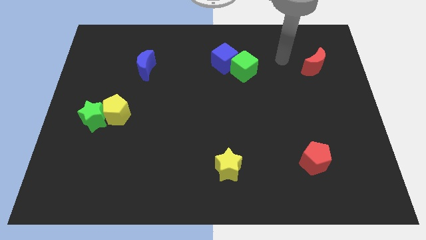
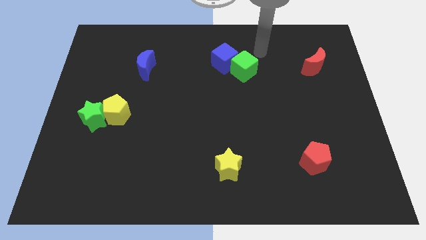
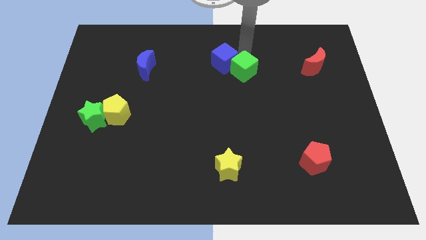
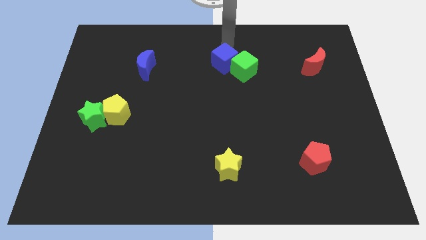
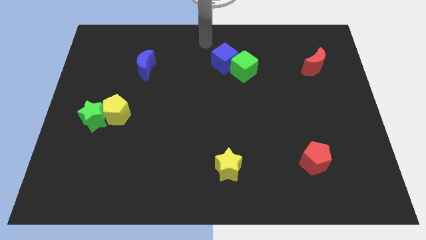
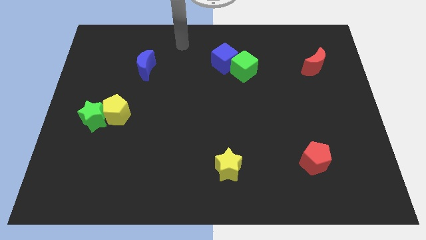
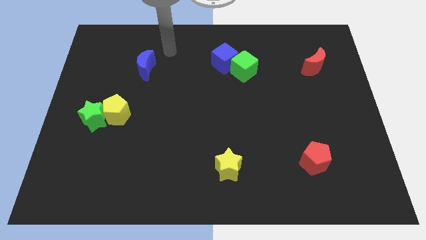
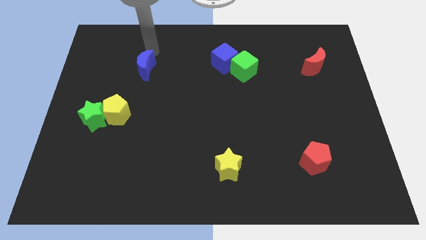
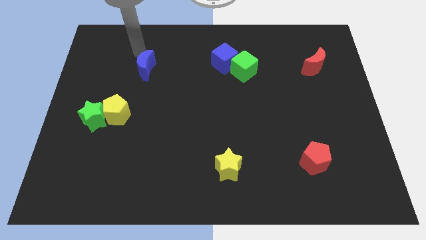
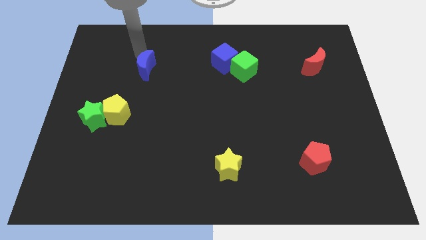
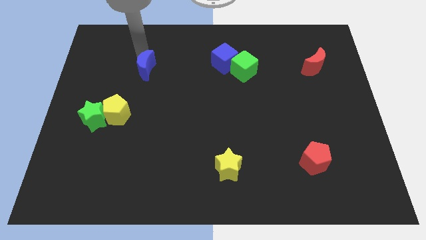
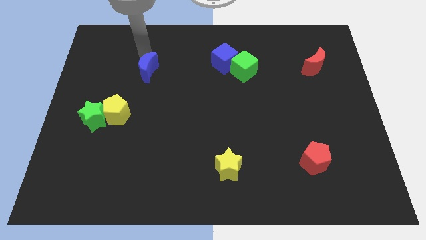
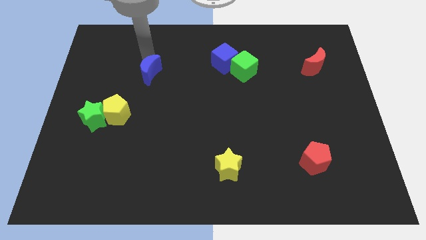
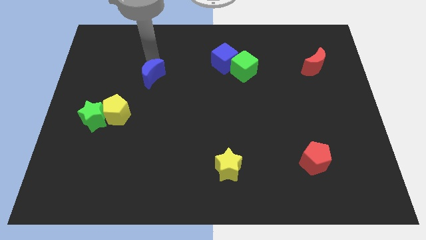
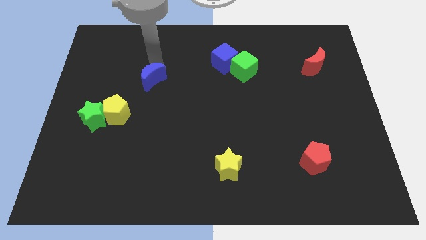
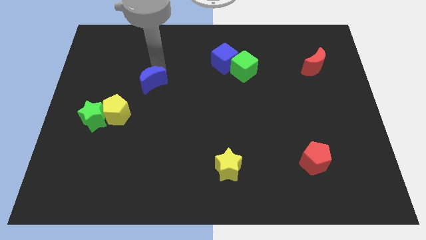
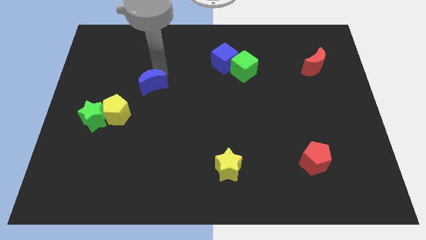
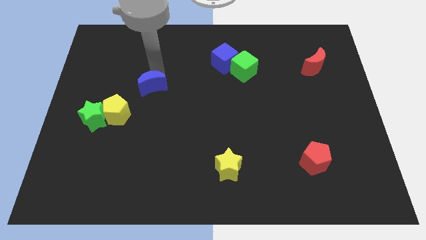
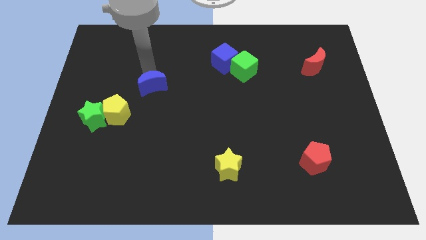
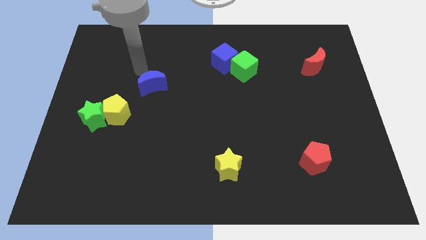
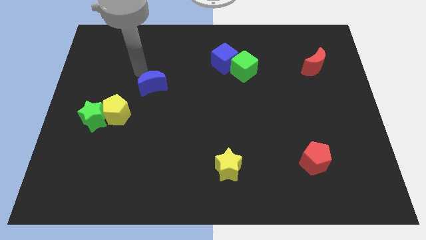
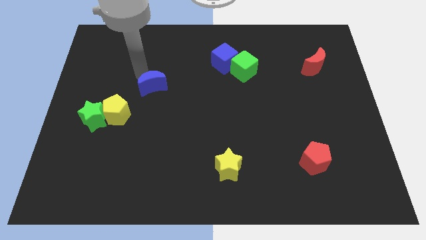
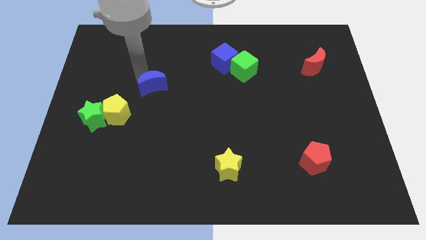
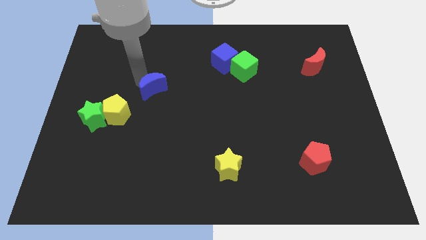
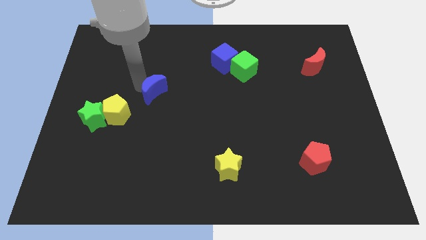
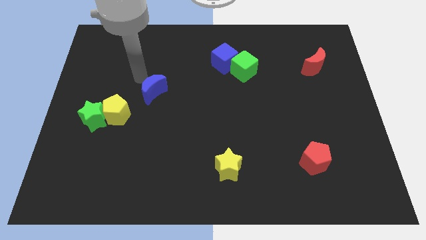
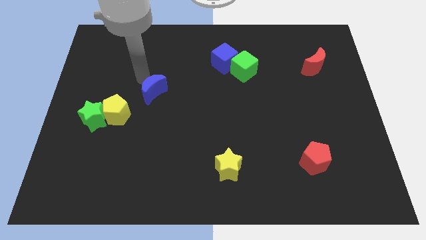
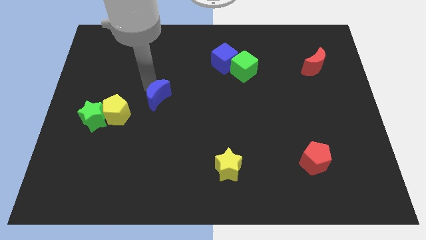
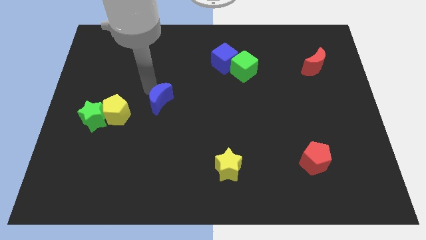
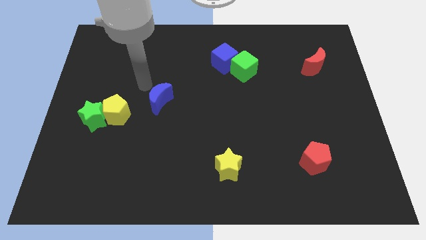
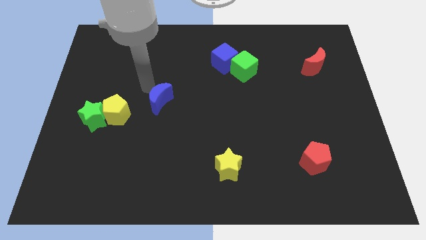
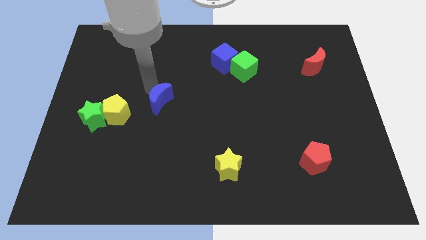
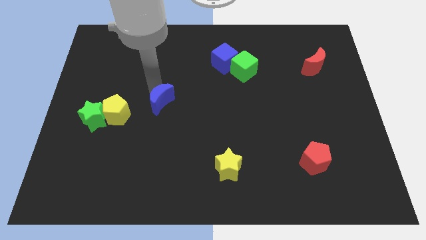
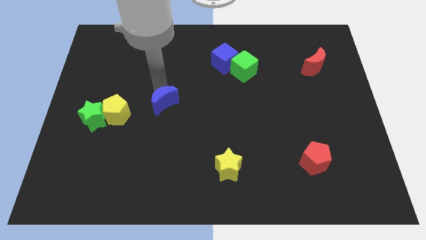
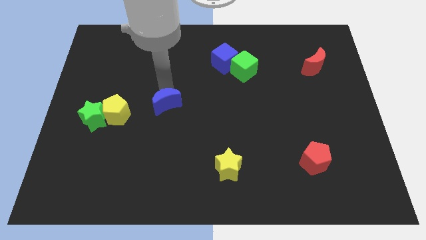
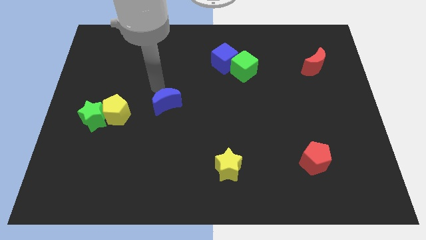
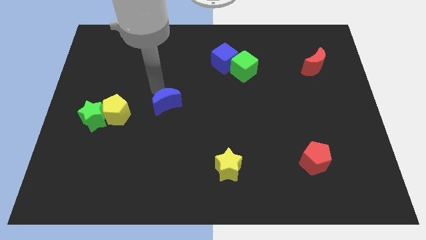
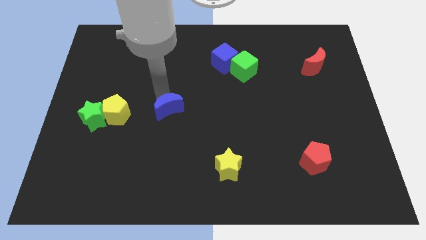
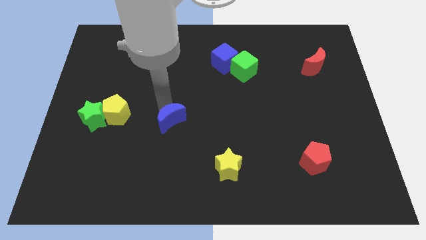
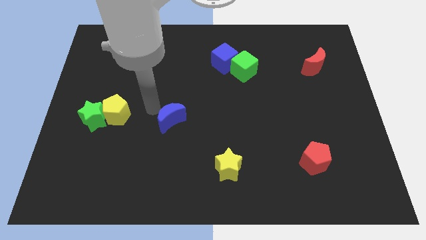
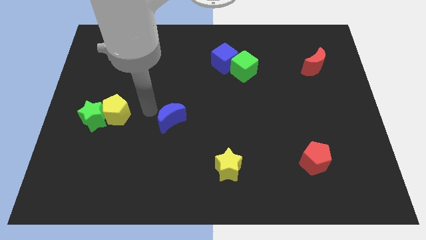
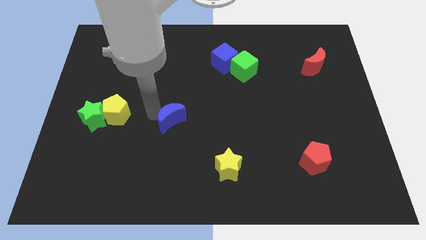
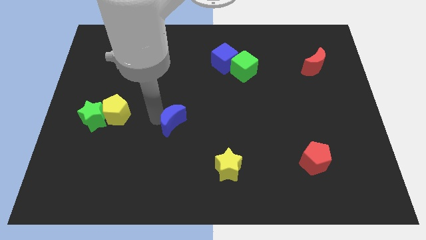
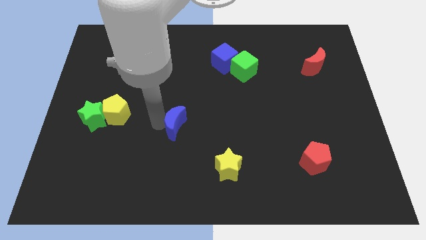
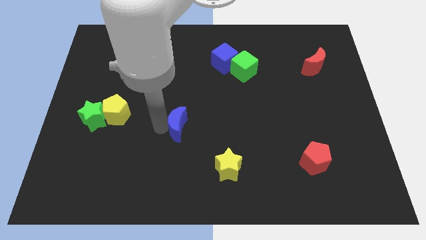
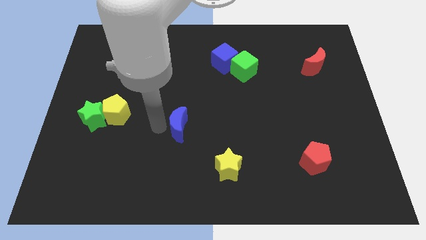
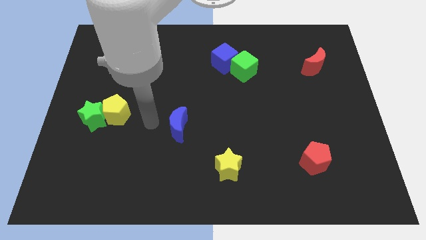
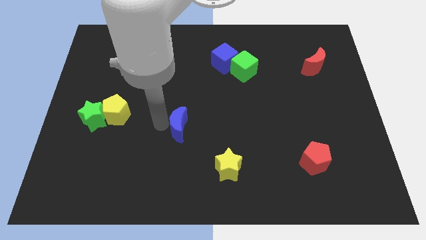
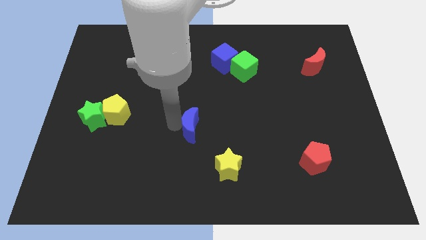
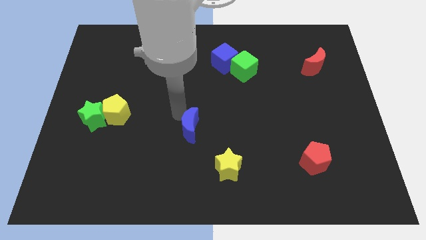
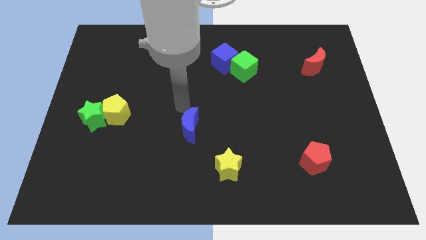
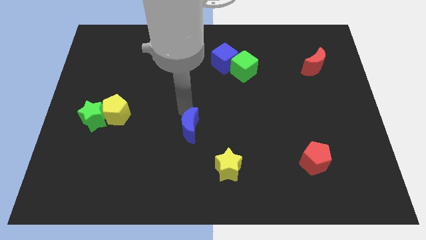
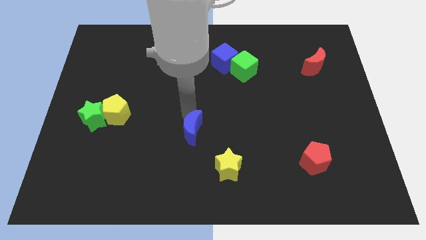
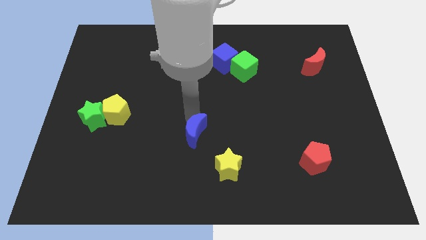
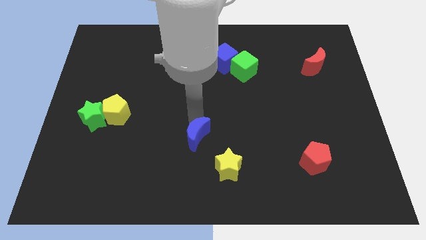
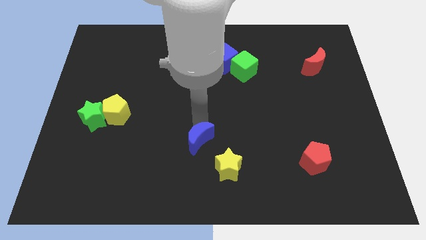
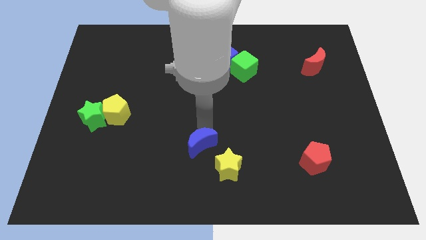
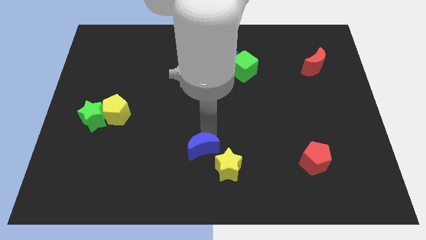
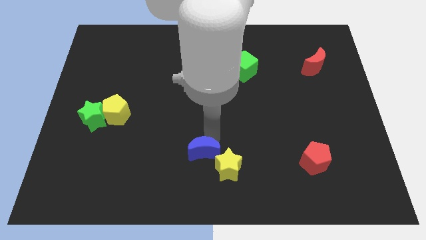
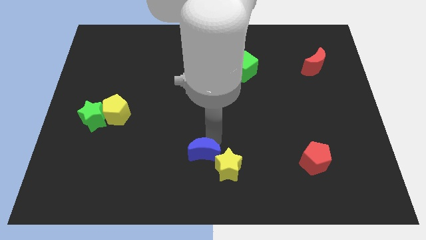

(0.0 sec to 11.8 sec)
move the blue moon to the bottom
